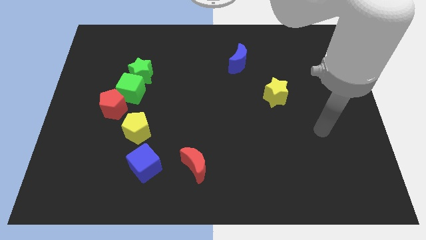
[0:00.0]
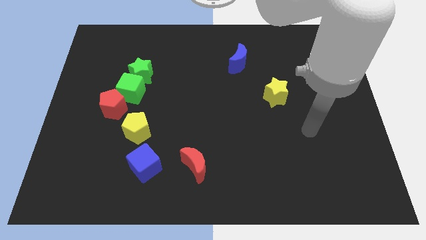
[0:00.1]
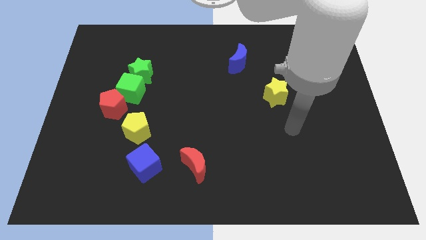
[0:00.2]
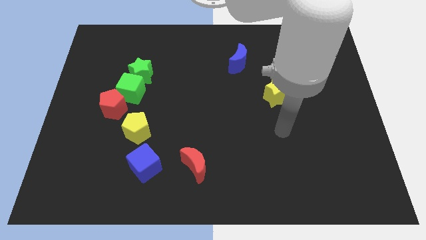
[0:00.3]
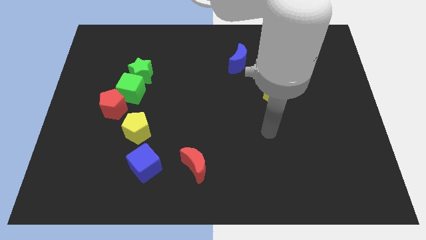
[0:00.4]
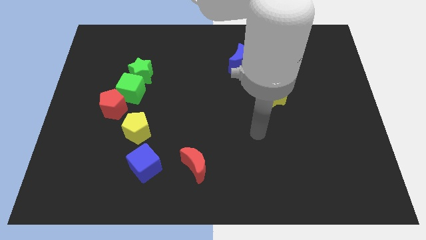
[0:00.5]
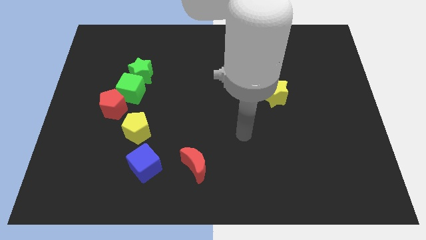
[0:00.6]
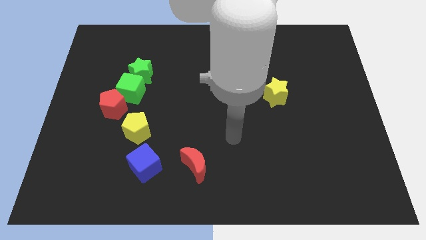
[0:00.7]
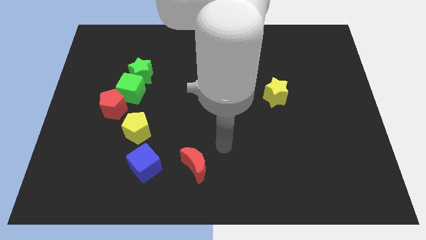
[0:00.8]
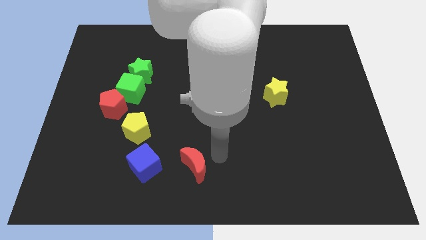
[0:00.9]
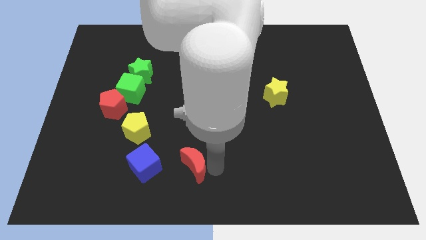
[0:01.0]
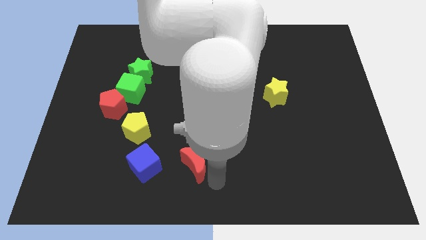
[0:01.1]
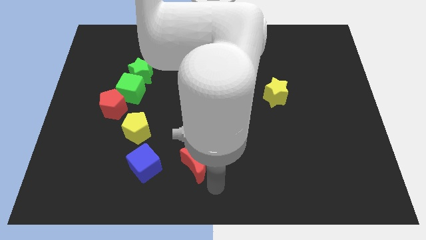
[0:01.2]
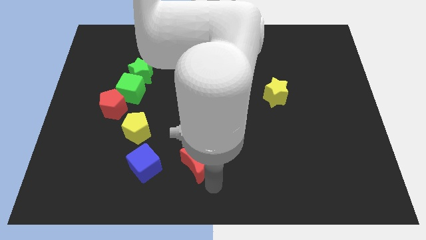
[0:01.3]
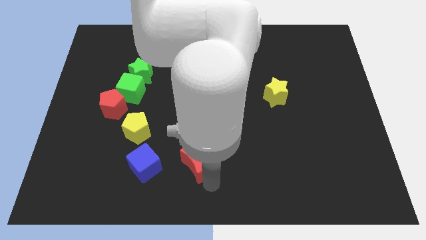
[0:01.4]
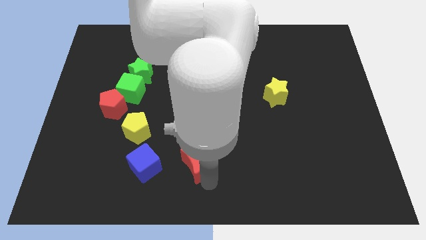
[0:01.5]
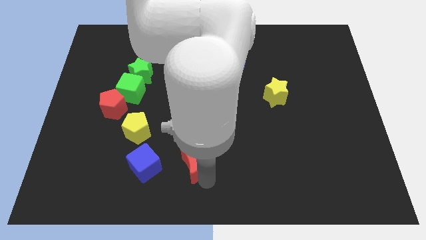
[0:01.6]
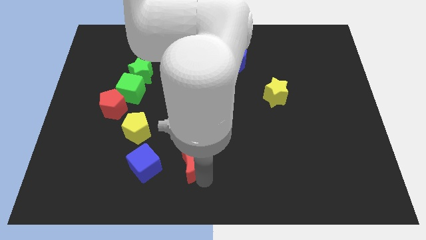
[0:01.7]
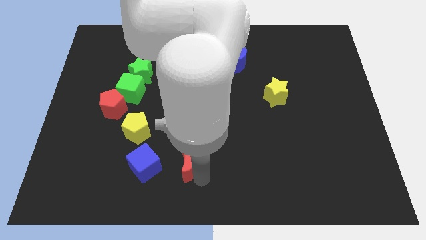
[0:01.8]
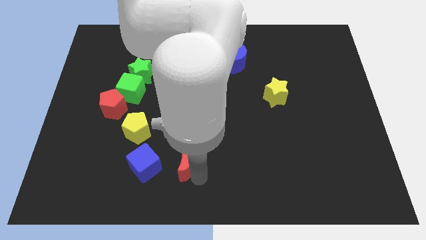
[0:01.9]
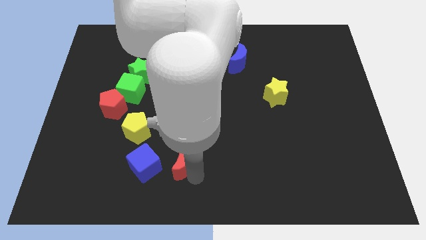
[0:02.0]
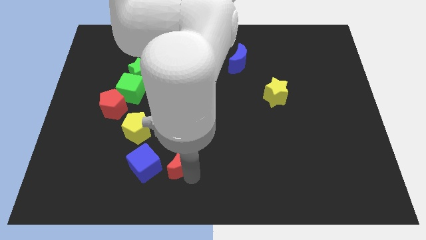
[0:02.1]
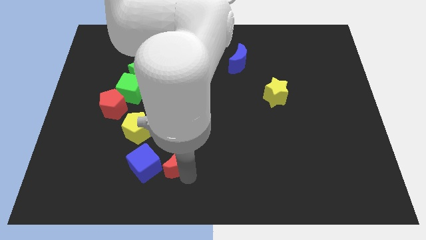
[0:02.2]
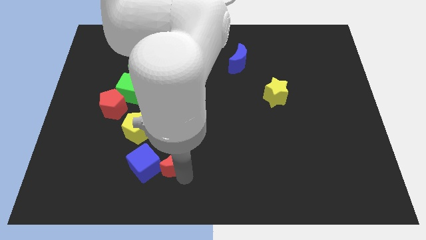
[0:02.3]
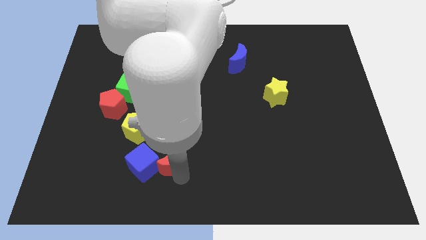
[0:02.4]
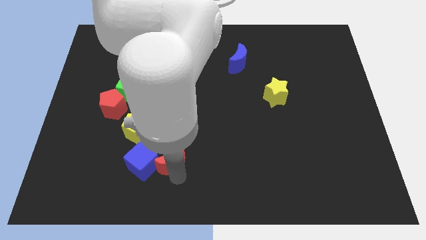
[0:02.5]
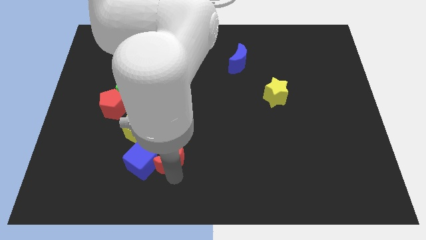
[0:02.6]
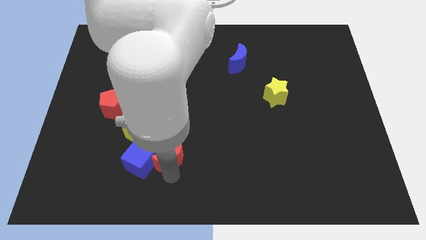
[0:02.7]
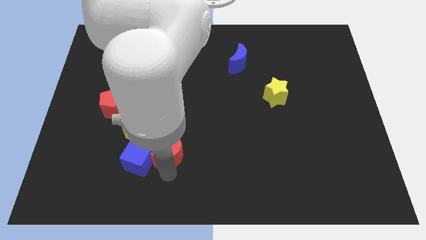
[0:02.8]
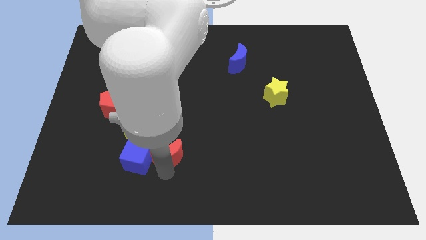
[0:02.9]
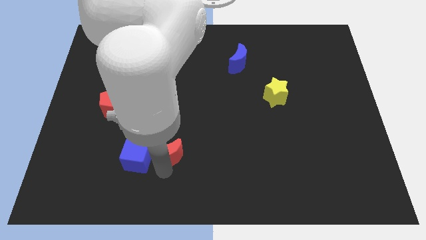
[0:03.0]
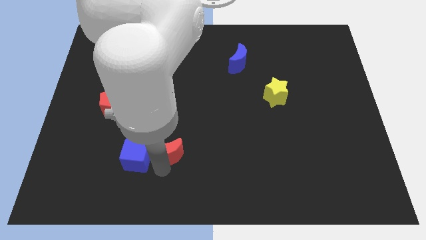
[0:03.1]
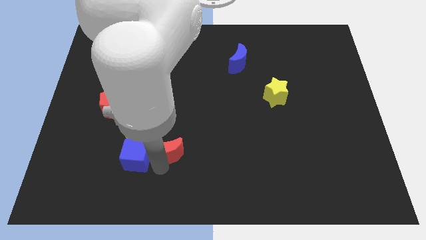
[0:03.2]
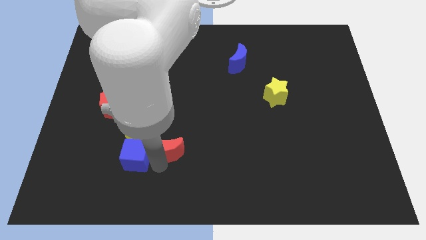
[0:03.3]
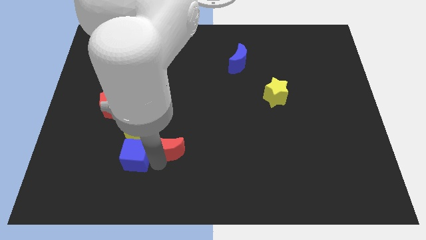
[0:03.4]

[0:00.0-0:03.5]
push the red moon somewhat upwards and left

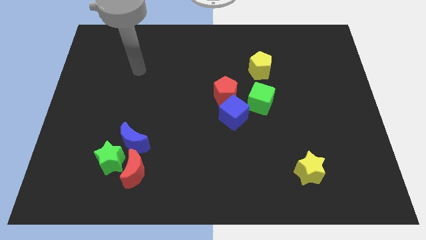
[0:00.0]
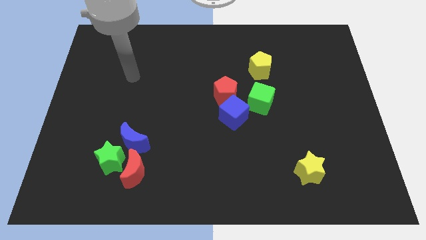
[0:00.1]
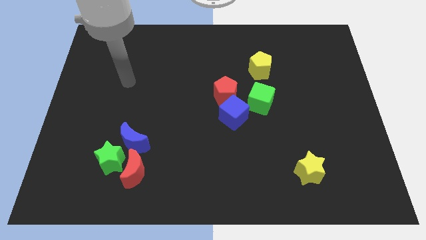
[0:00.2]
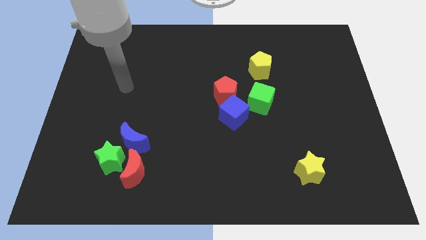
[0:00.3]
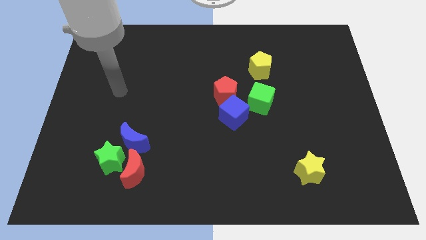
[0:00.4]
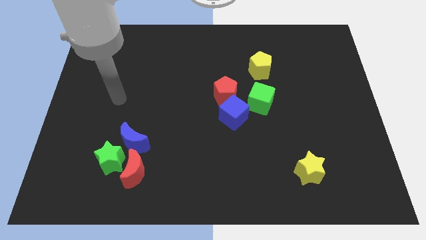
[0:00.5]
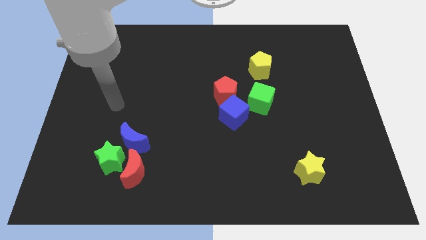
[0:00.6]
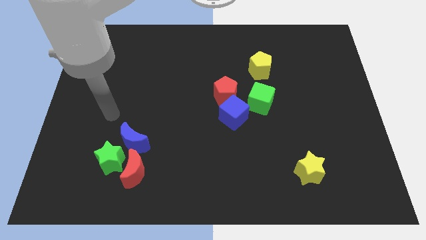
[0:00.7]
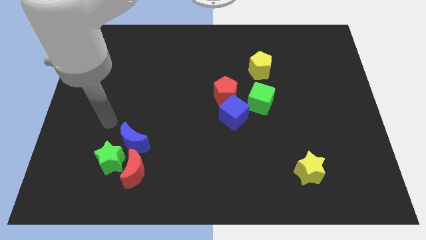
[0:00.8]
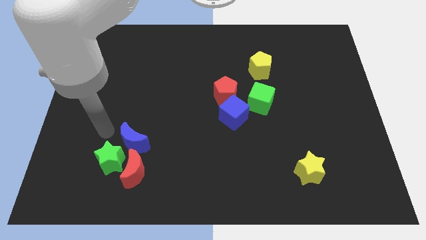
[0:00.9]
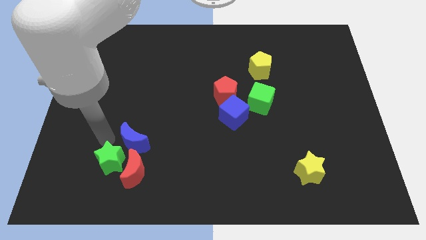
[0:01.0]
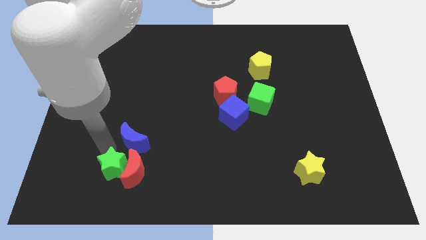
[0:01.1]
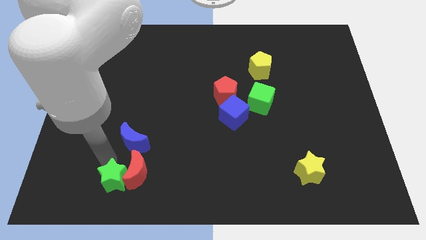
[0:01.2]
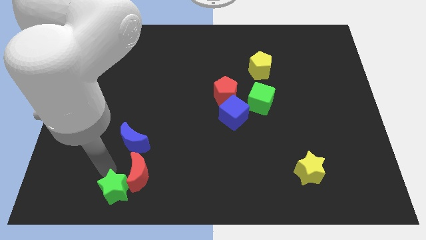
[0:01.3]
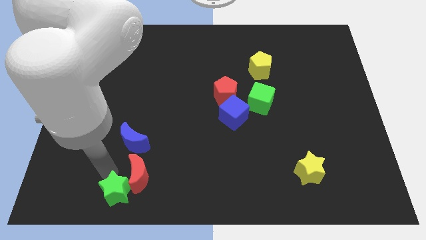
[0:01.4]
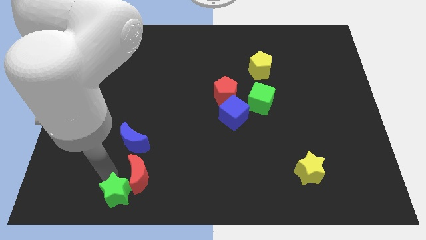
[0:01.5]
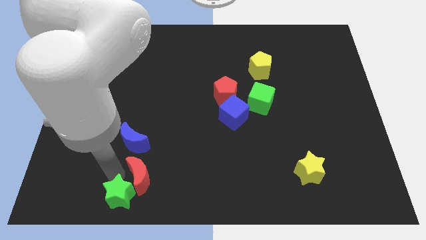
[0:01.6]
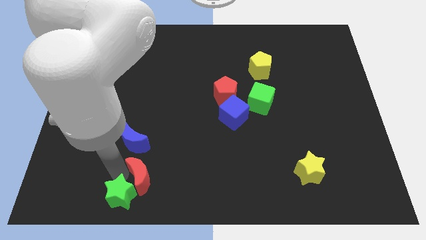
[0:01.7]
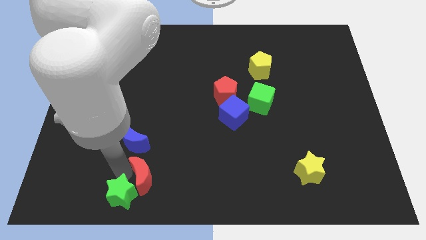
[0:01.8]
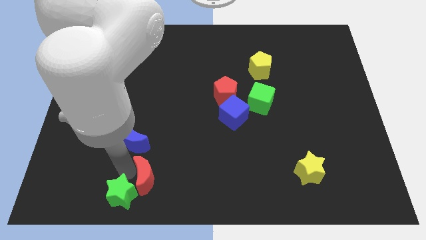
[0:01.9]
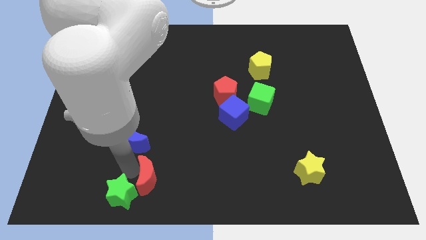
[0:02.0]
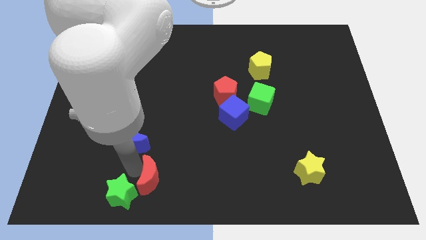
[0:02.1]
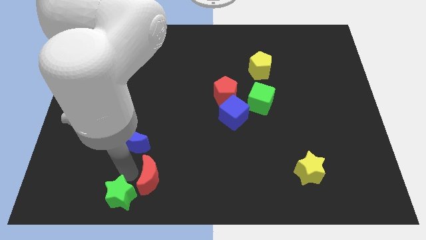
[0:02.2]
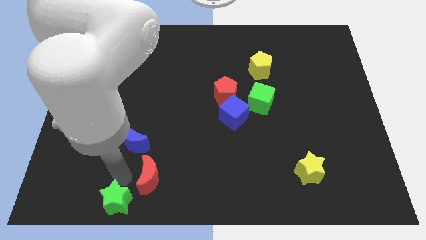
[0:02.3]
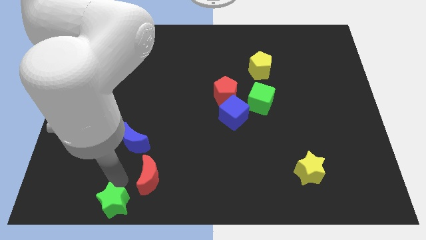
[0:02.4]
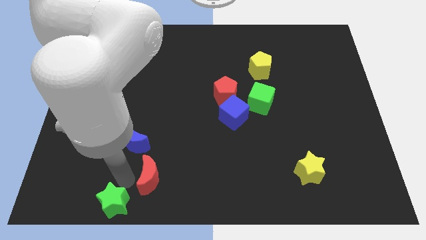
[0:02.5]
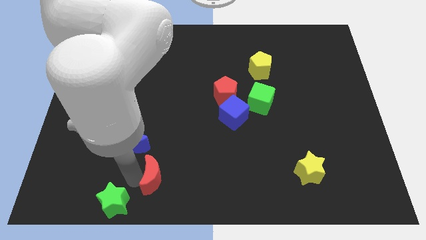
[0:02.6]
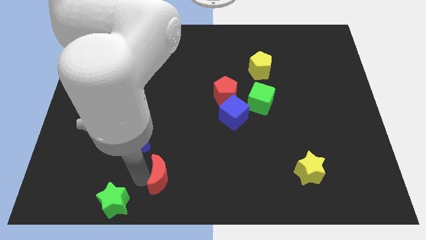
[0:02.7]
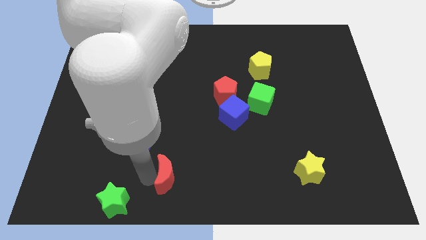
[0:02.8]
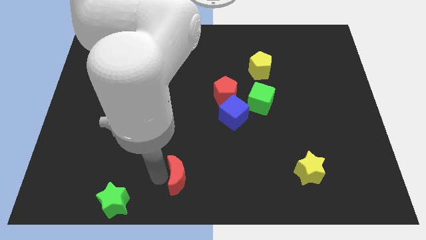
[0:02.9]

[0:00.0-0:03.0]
slide the red moon right slightly

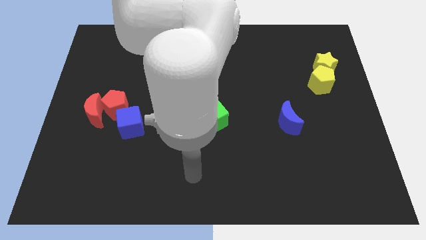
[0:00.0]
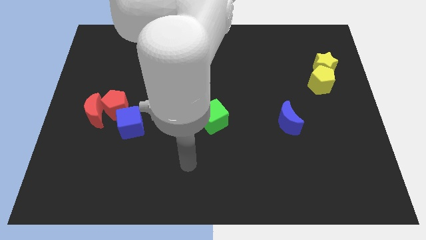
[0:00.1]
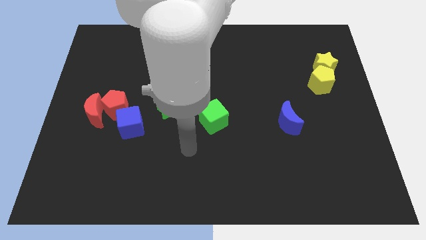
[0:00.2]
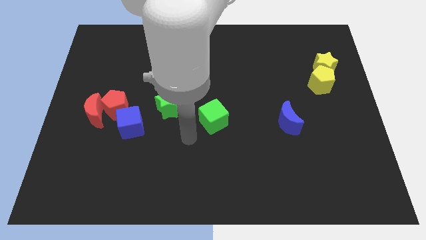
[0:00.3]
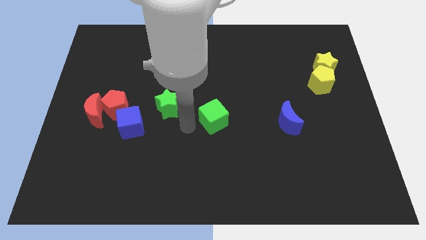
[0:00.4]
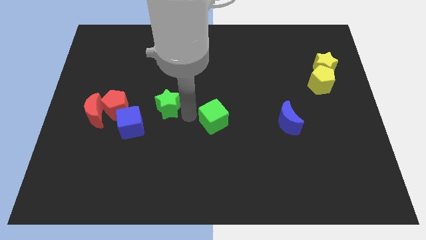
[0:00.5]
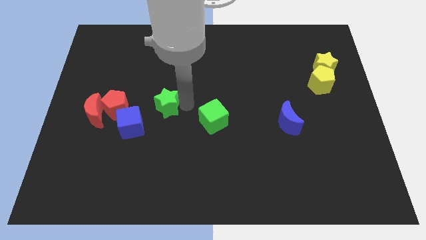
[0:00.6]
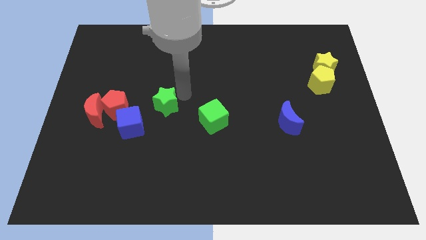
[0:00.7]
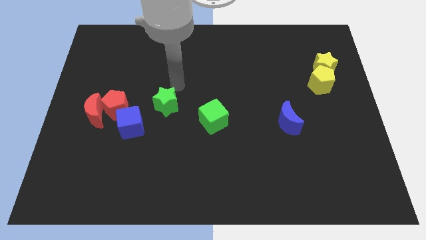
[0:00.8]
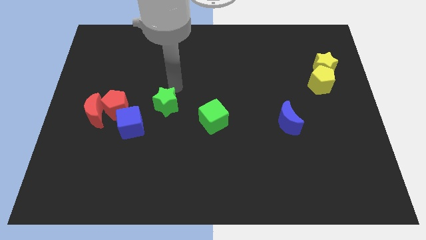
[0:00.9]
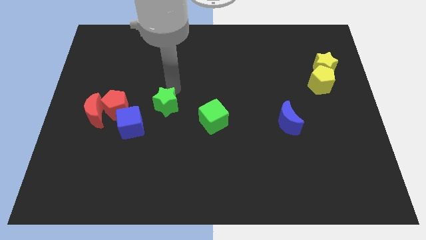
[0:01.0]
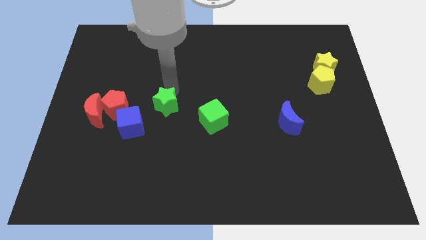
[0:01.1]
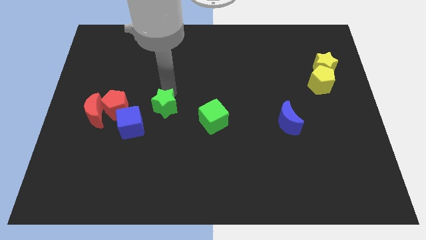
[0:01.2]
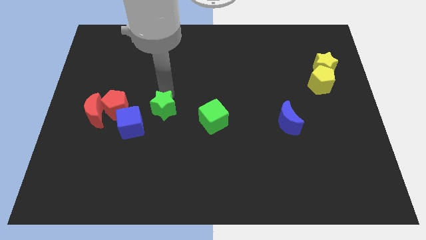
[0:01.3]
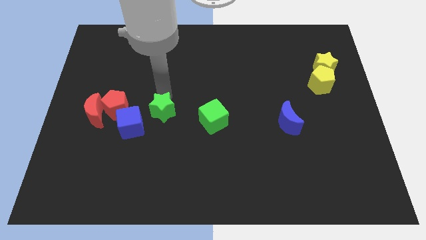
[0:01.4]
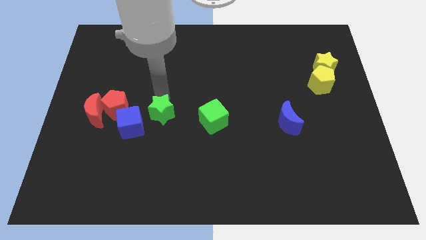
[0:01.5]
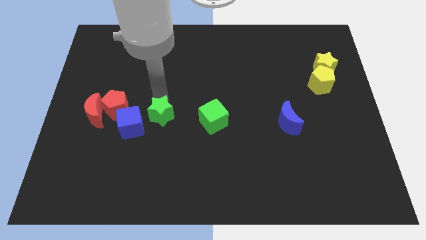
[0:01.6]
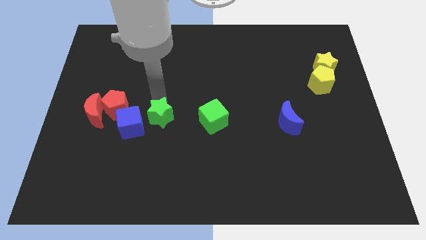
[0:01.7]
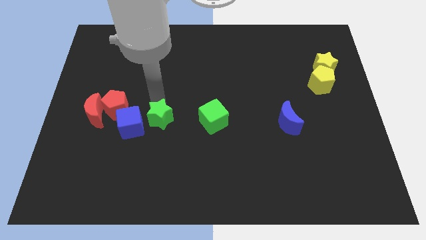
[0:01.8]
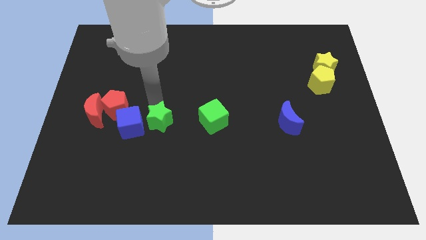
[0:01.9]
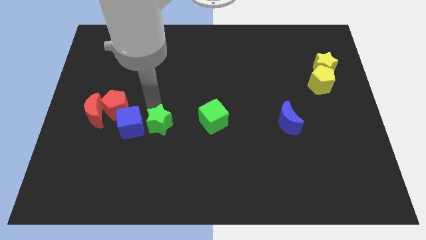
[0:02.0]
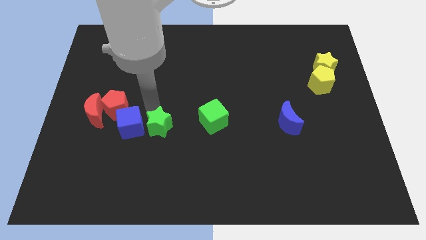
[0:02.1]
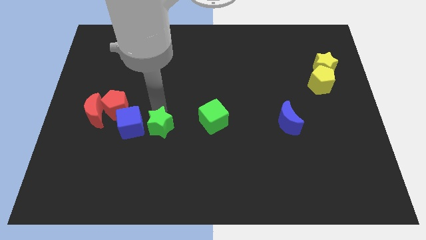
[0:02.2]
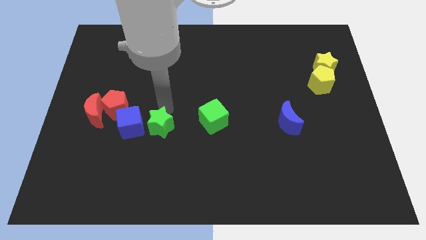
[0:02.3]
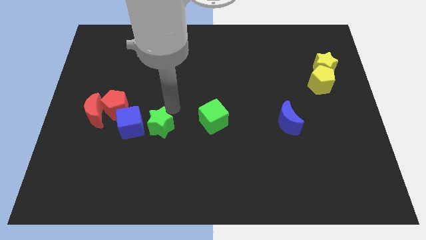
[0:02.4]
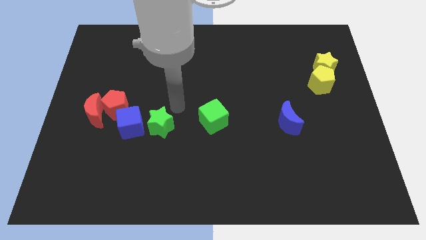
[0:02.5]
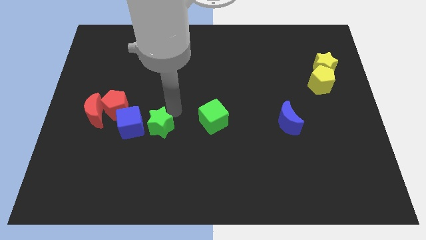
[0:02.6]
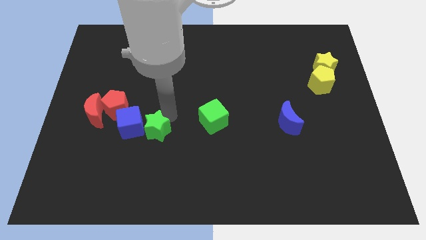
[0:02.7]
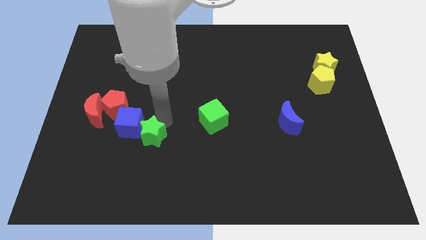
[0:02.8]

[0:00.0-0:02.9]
push the green star a little bit diagonally down and to the left
